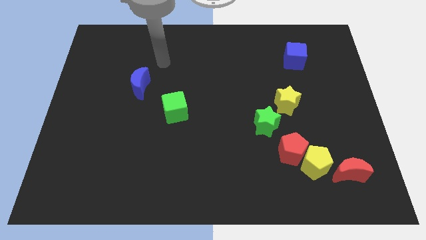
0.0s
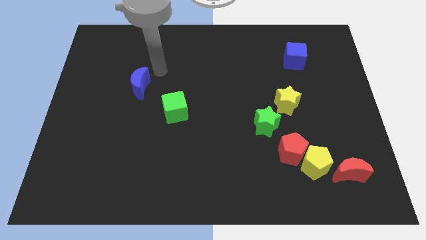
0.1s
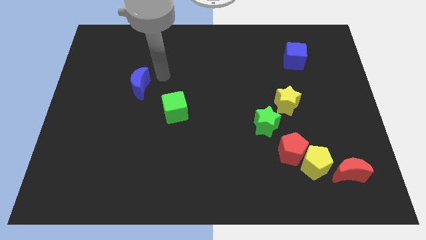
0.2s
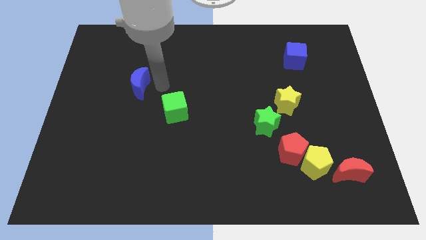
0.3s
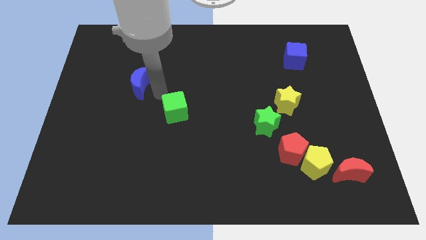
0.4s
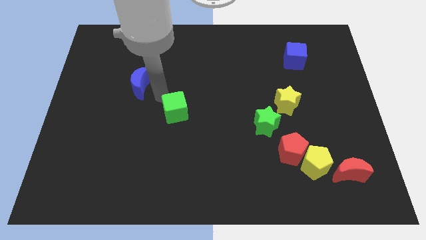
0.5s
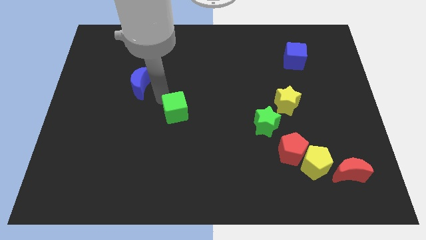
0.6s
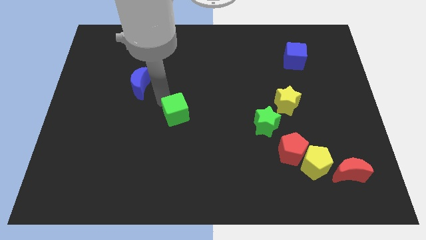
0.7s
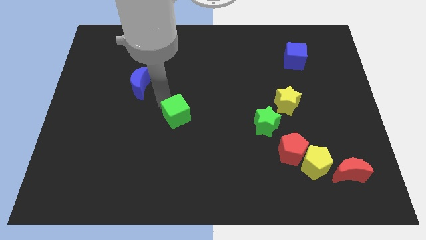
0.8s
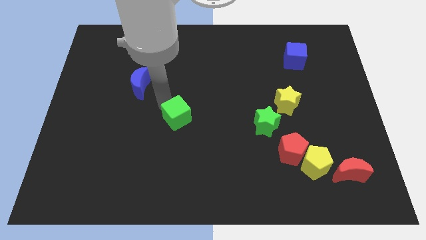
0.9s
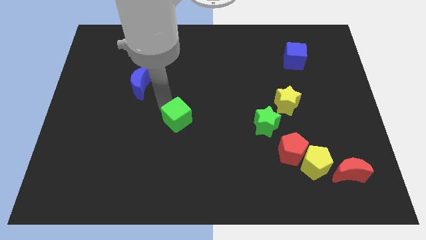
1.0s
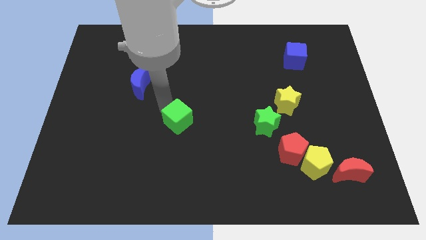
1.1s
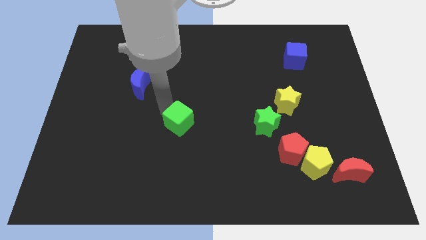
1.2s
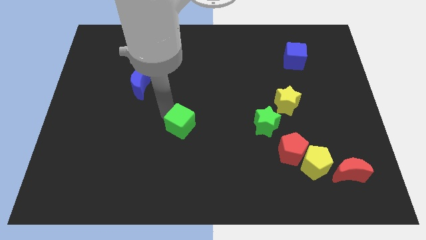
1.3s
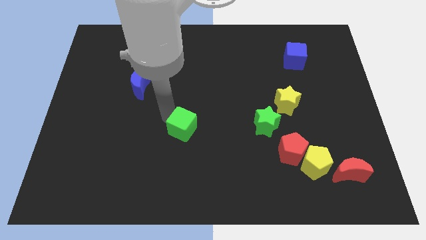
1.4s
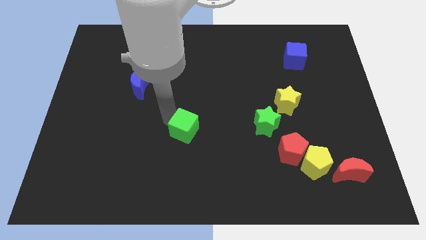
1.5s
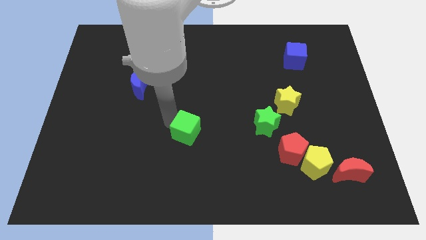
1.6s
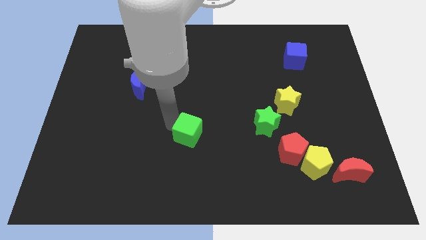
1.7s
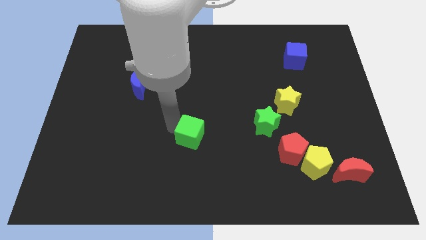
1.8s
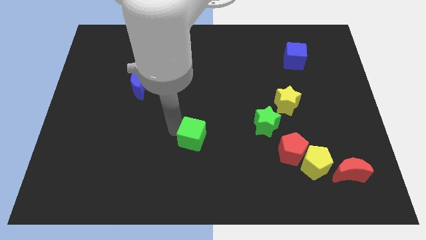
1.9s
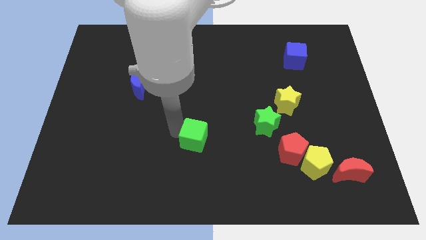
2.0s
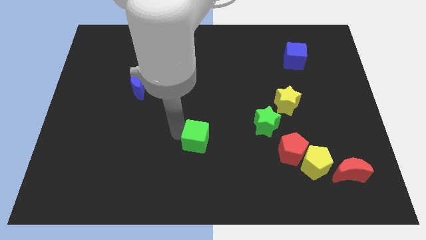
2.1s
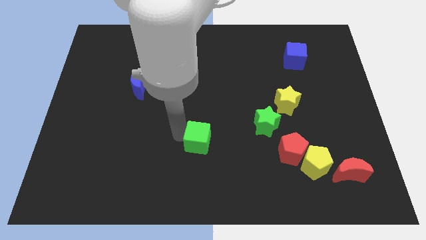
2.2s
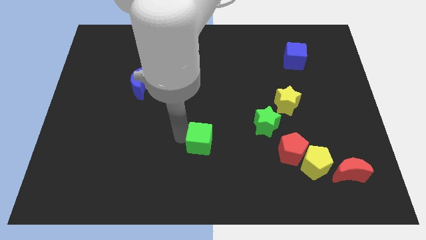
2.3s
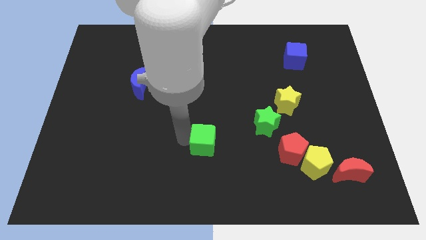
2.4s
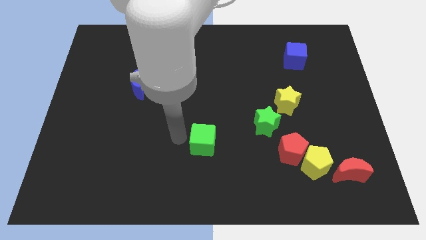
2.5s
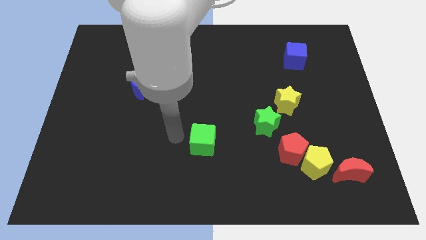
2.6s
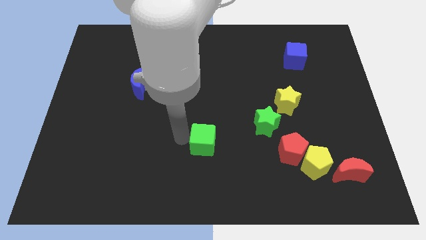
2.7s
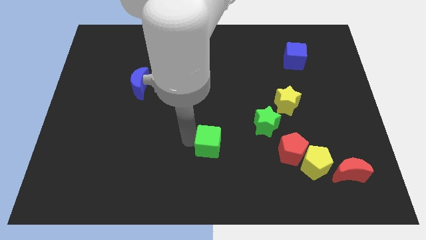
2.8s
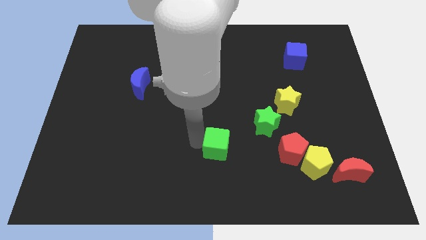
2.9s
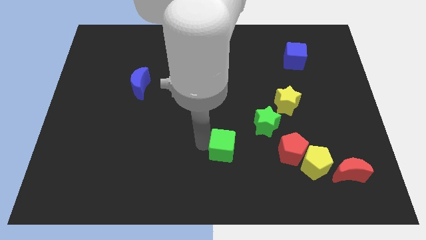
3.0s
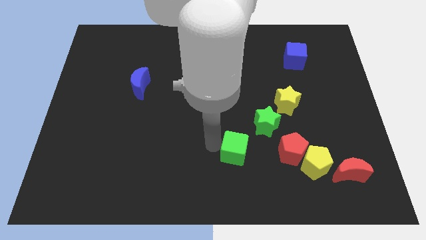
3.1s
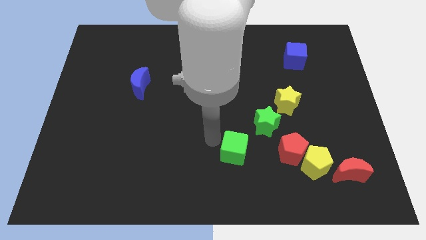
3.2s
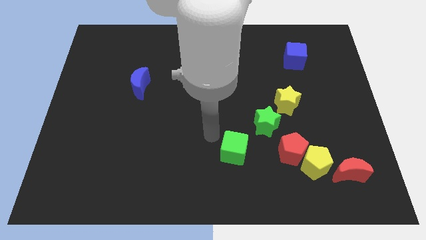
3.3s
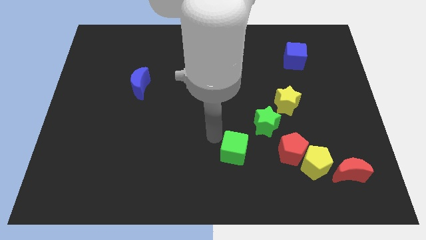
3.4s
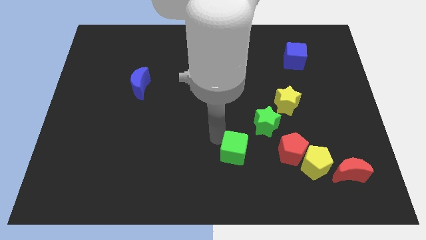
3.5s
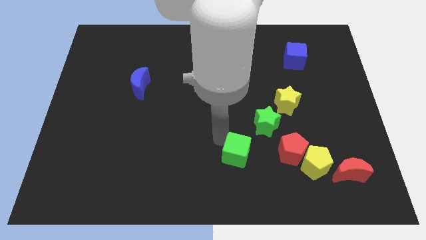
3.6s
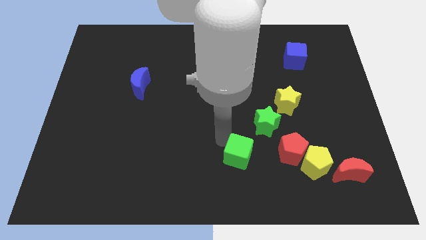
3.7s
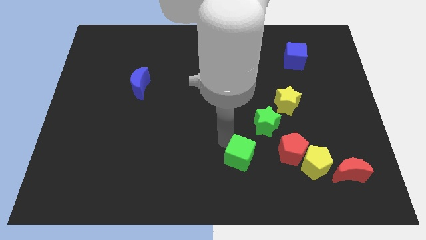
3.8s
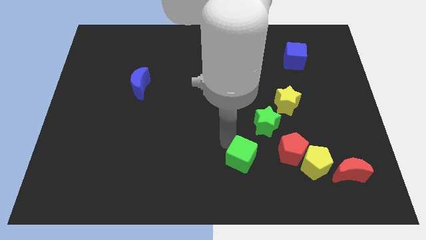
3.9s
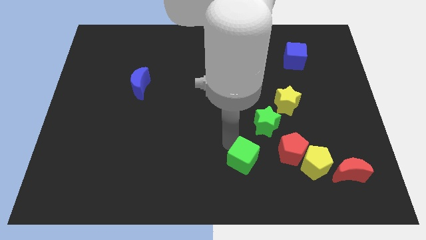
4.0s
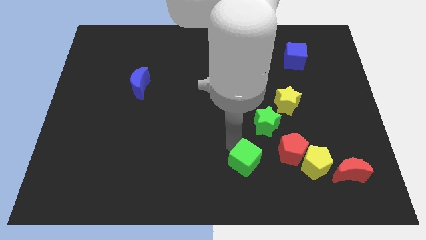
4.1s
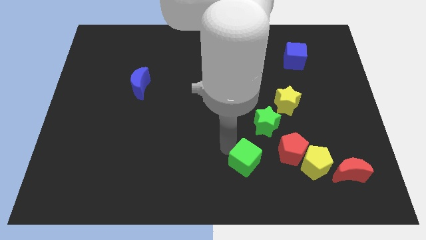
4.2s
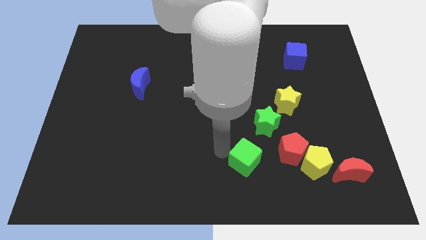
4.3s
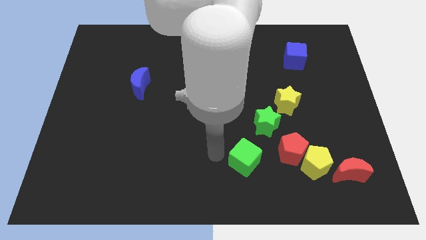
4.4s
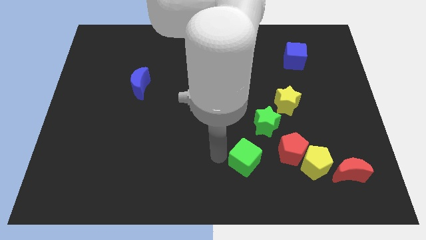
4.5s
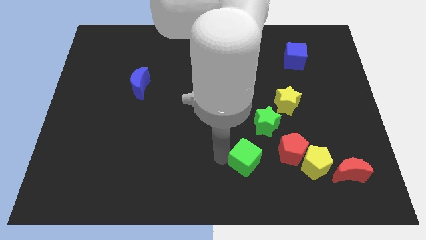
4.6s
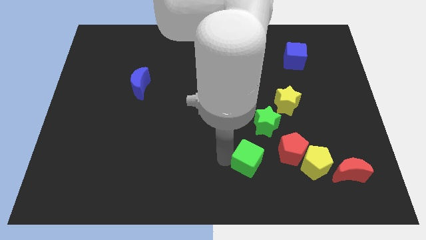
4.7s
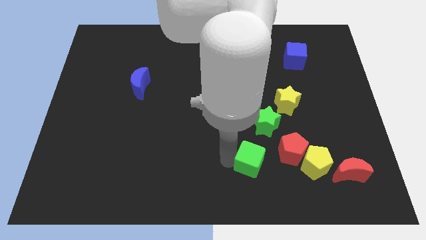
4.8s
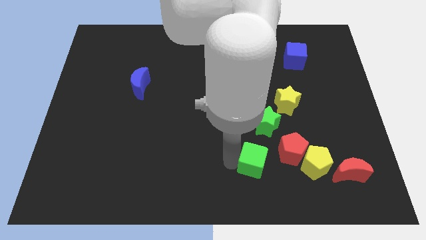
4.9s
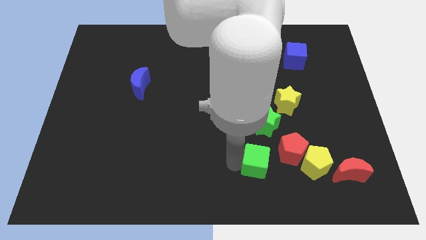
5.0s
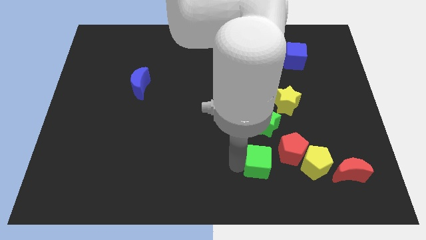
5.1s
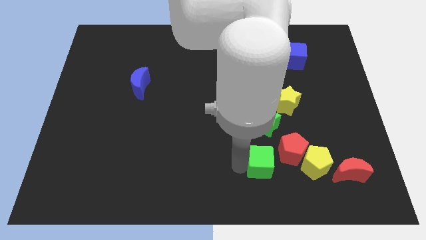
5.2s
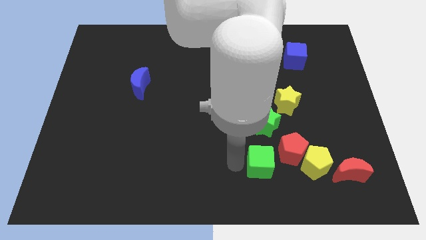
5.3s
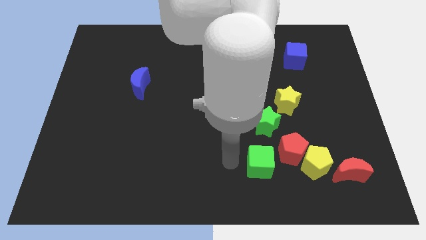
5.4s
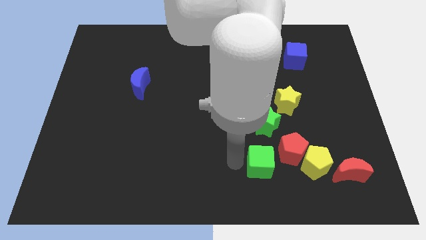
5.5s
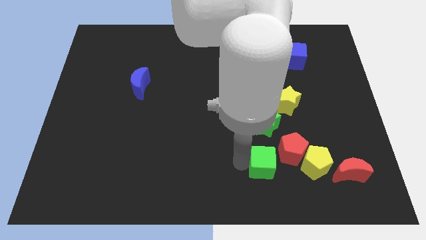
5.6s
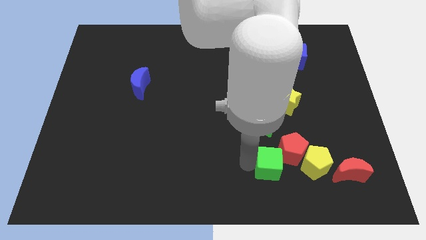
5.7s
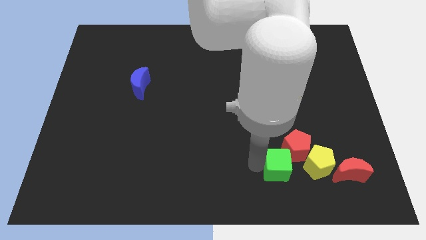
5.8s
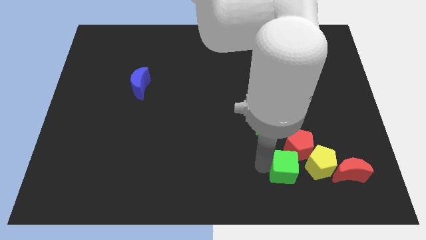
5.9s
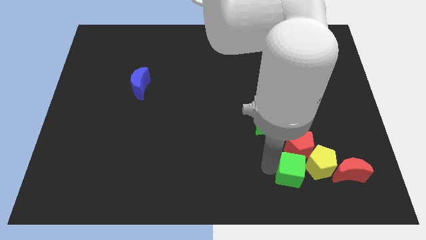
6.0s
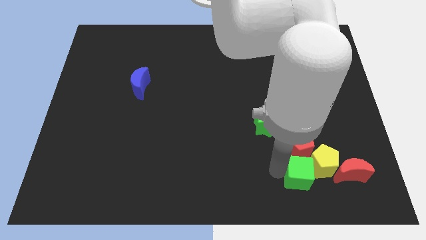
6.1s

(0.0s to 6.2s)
push the green cube close to the yellow pentagon
